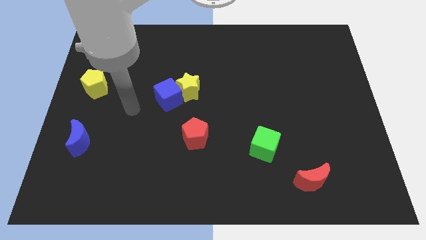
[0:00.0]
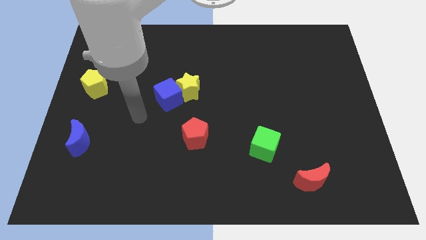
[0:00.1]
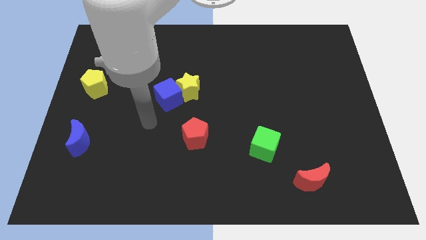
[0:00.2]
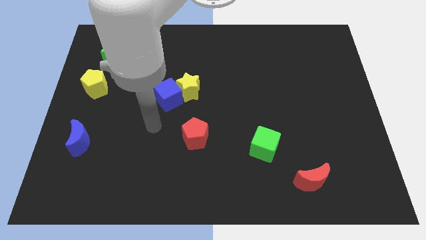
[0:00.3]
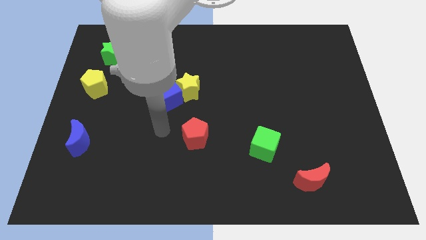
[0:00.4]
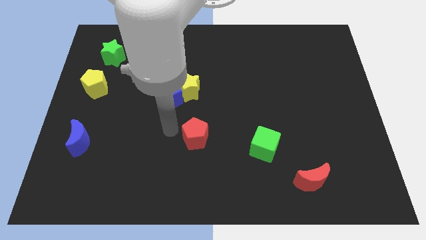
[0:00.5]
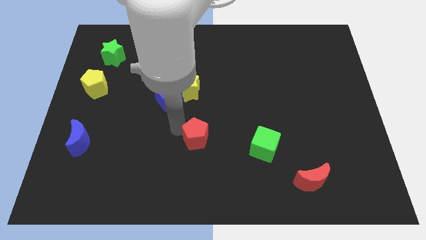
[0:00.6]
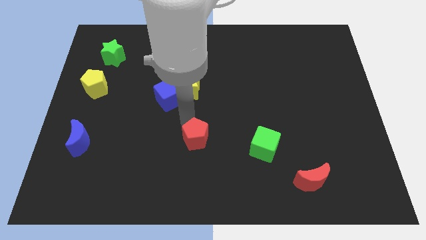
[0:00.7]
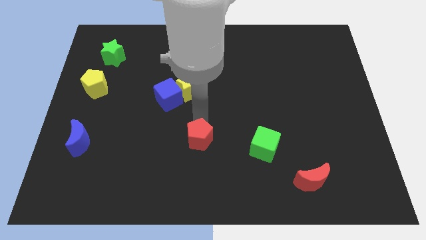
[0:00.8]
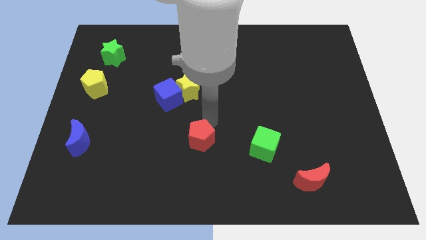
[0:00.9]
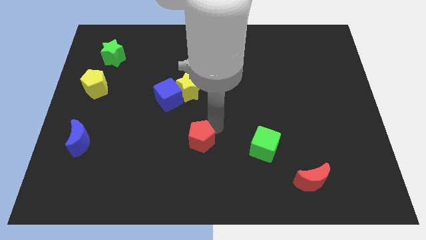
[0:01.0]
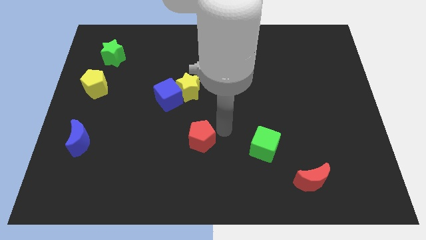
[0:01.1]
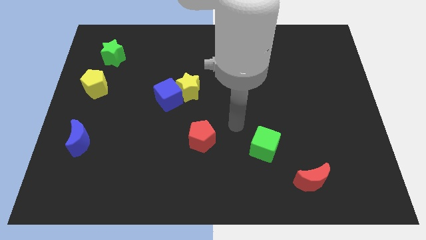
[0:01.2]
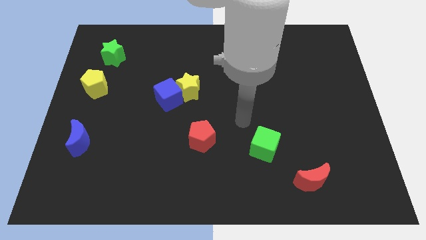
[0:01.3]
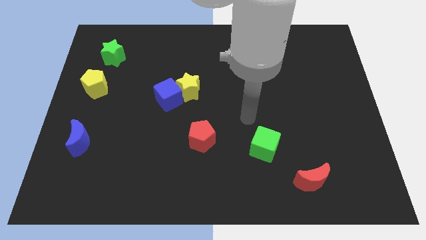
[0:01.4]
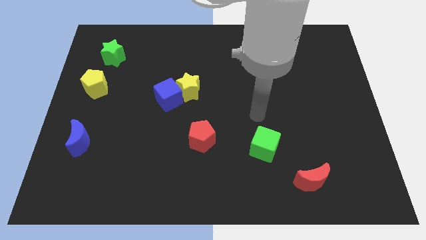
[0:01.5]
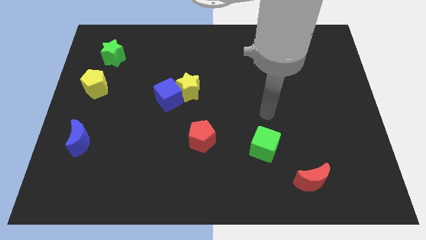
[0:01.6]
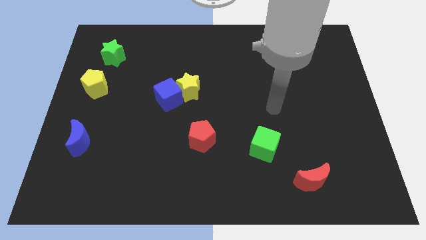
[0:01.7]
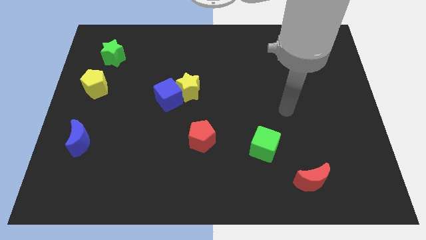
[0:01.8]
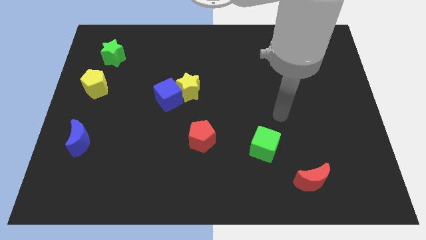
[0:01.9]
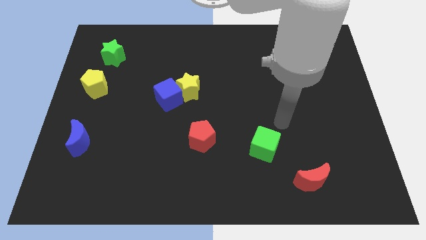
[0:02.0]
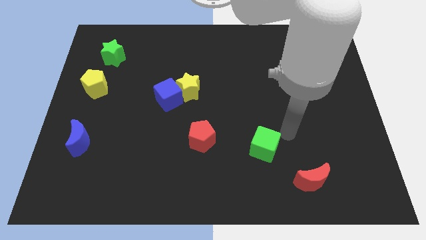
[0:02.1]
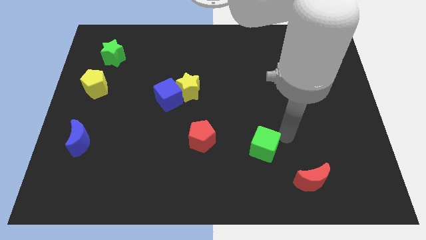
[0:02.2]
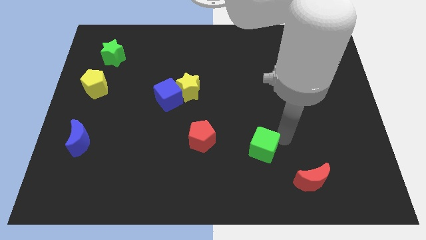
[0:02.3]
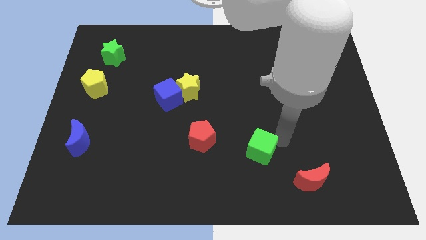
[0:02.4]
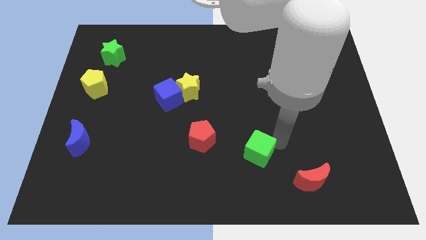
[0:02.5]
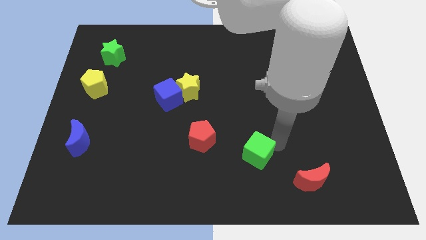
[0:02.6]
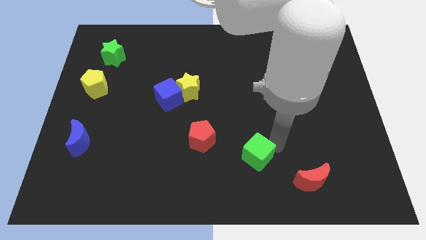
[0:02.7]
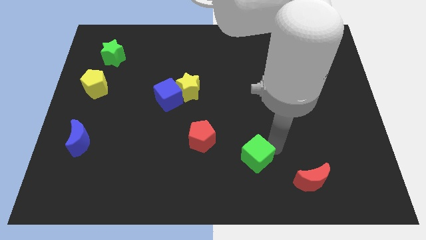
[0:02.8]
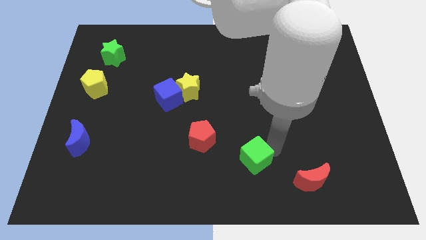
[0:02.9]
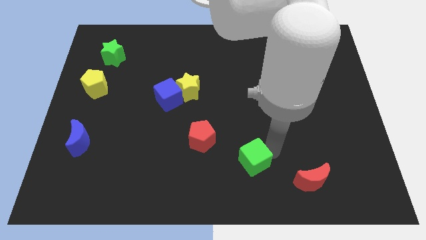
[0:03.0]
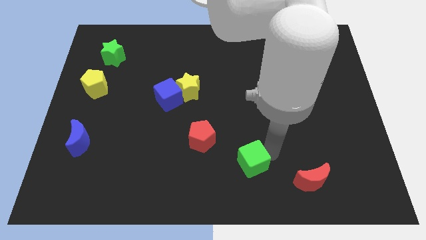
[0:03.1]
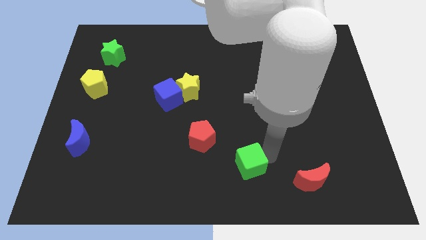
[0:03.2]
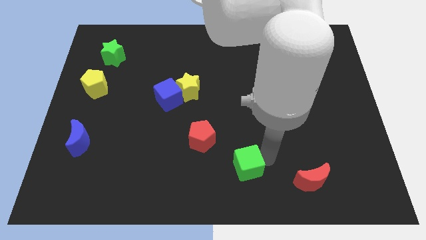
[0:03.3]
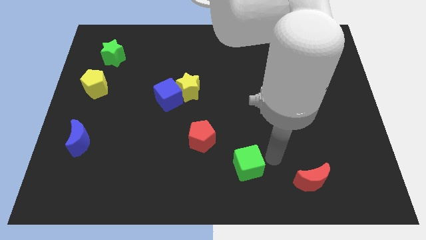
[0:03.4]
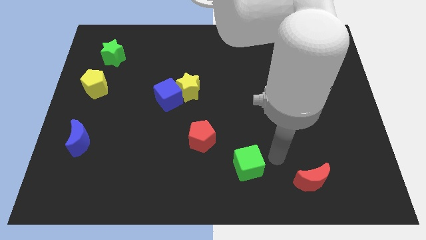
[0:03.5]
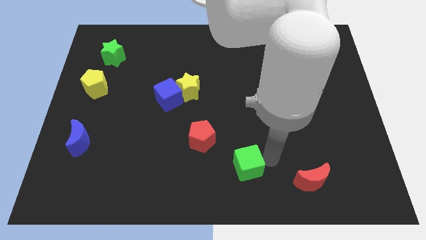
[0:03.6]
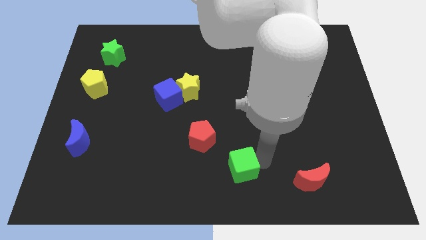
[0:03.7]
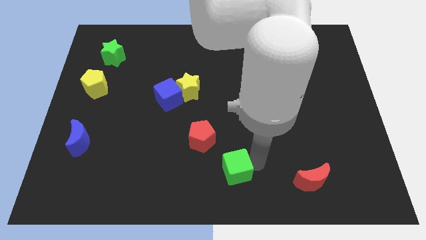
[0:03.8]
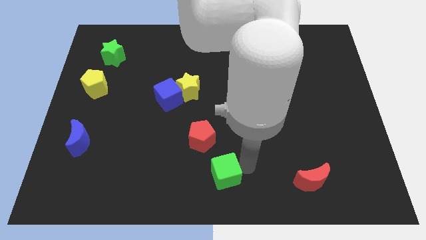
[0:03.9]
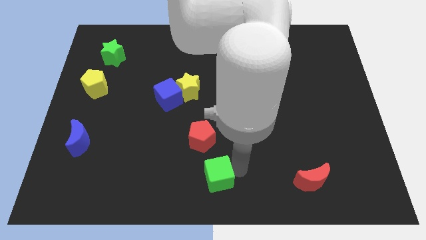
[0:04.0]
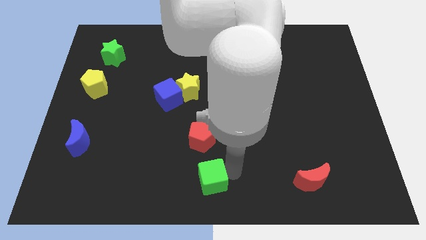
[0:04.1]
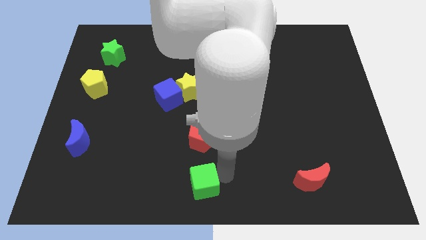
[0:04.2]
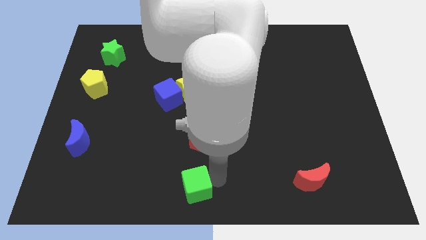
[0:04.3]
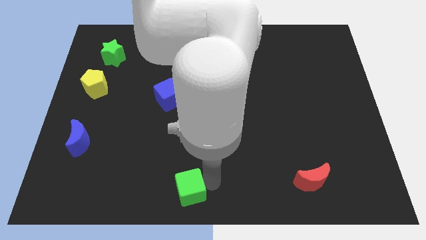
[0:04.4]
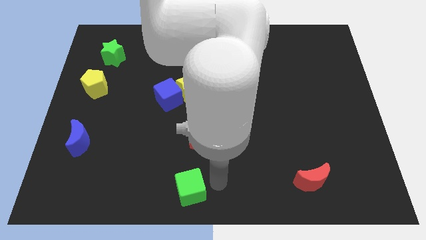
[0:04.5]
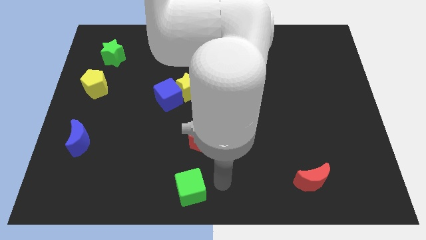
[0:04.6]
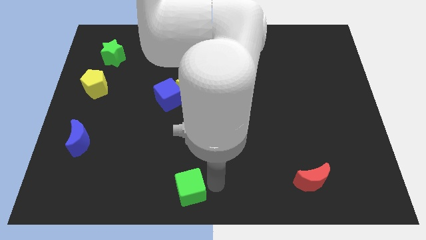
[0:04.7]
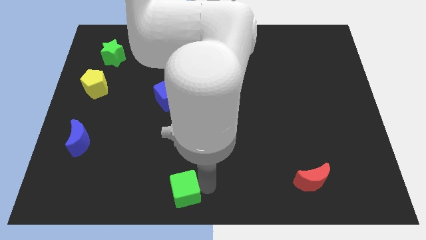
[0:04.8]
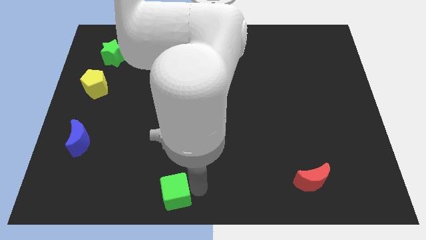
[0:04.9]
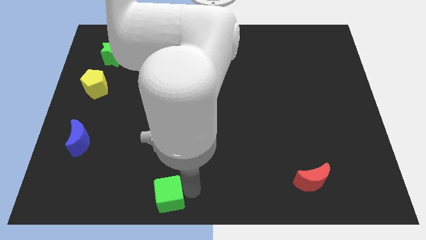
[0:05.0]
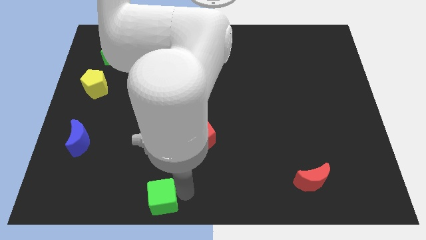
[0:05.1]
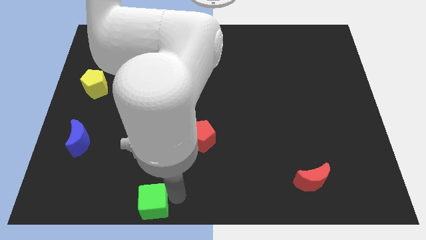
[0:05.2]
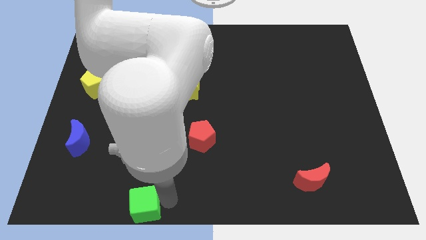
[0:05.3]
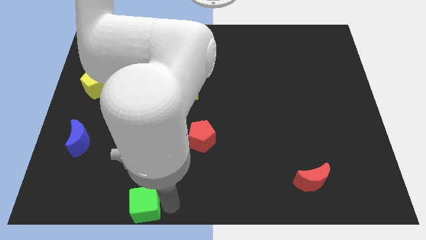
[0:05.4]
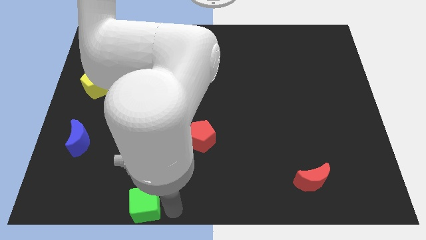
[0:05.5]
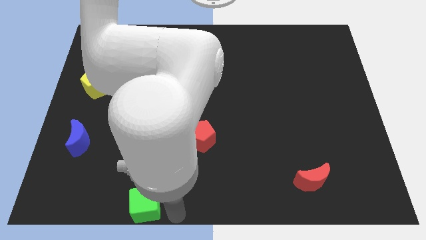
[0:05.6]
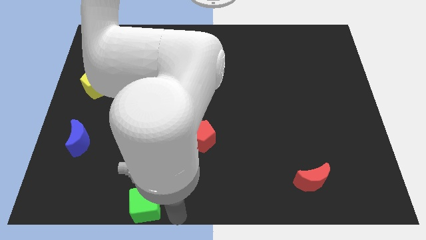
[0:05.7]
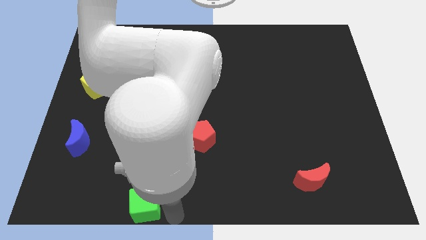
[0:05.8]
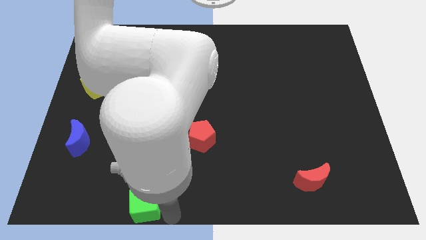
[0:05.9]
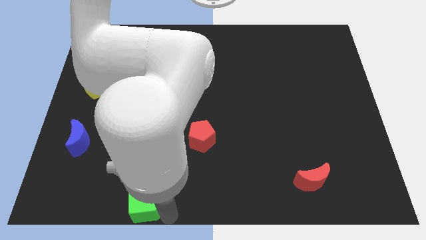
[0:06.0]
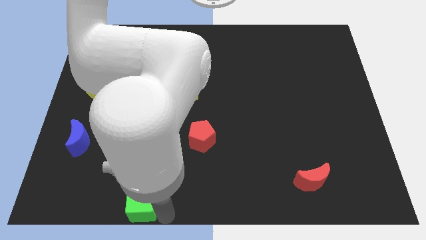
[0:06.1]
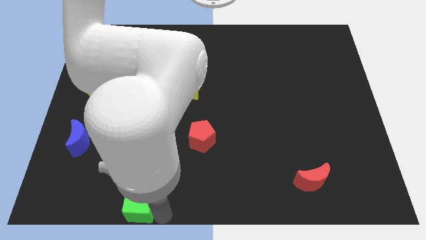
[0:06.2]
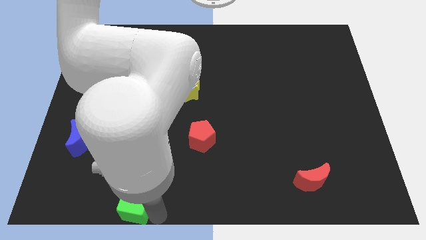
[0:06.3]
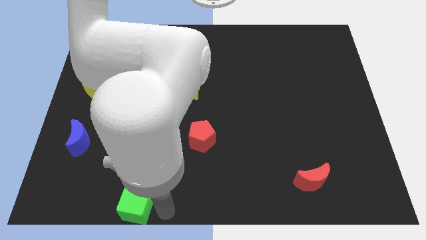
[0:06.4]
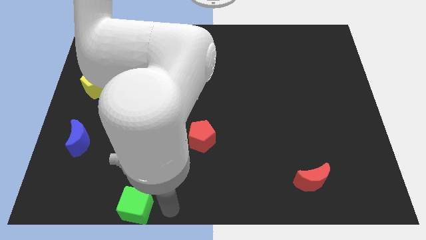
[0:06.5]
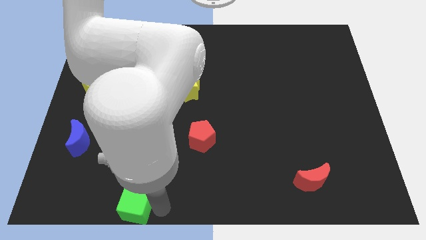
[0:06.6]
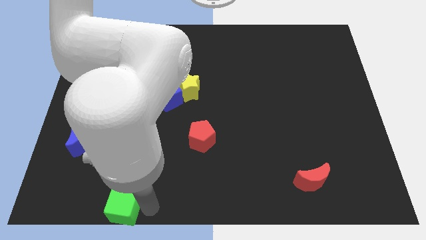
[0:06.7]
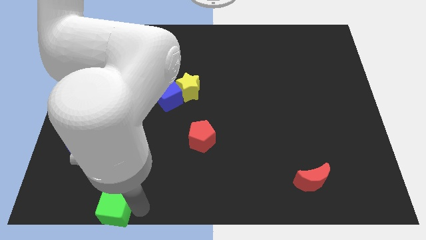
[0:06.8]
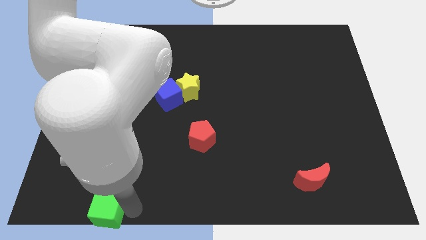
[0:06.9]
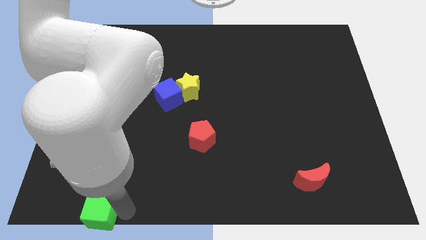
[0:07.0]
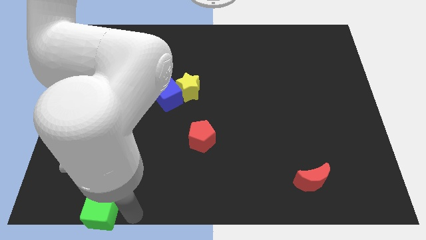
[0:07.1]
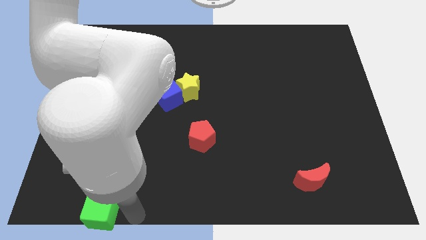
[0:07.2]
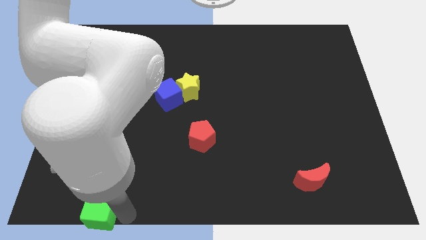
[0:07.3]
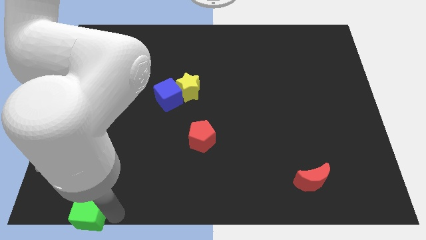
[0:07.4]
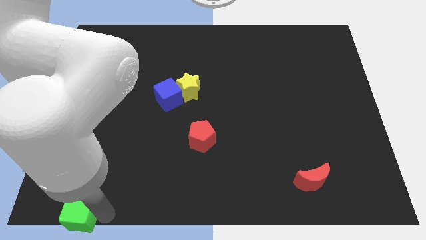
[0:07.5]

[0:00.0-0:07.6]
slide the green cube to the bottom left of the board
